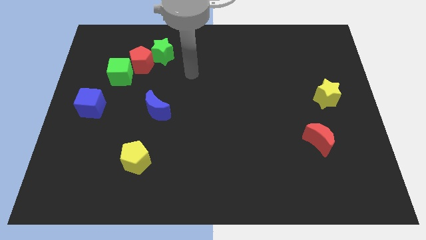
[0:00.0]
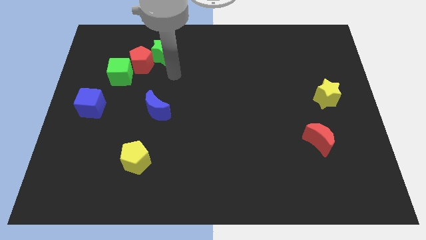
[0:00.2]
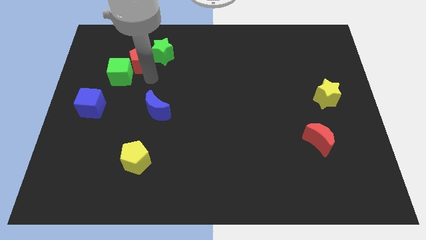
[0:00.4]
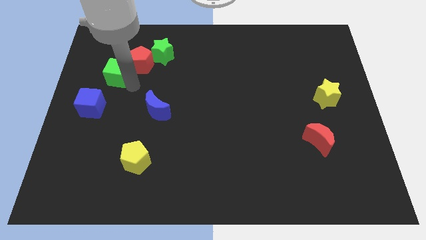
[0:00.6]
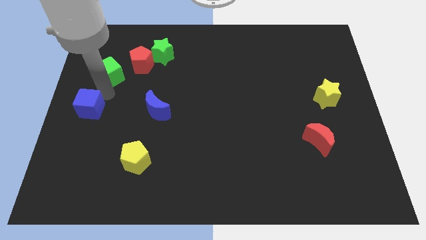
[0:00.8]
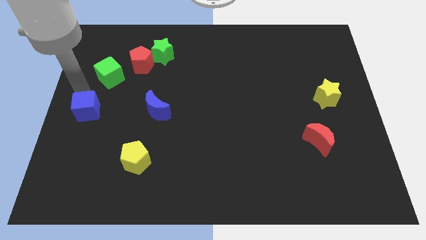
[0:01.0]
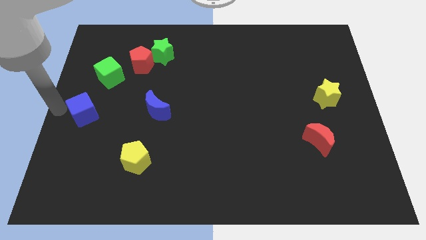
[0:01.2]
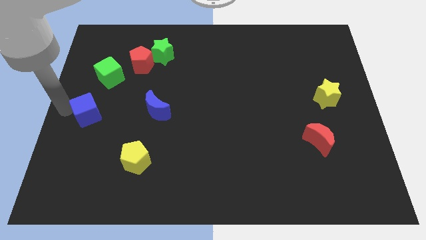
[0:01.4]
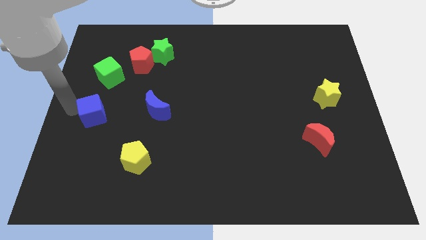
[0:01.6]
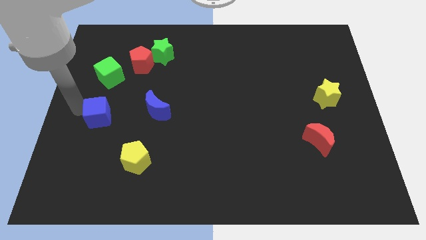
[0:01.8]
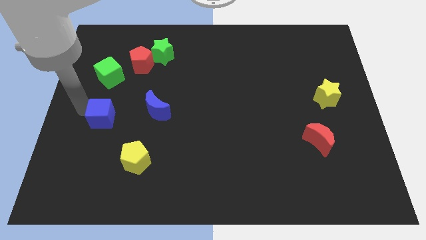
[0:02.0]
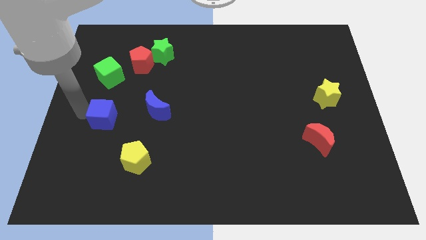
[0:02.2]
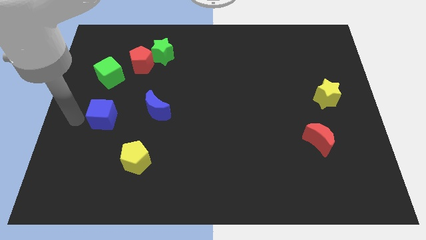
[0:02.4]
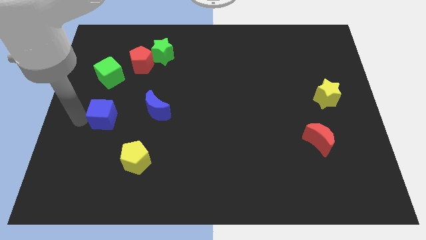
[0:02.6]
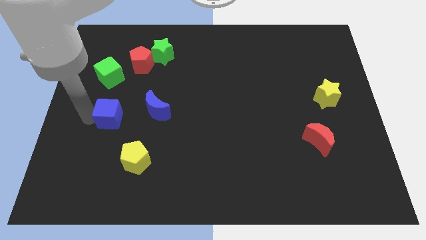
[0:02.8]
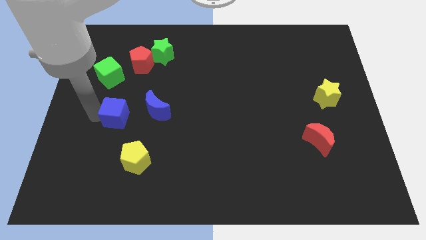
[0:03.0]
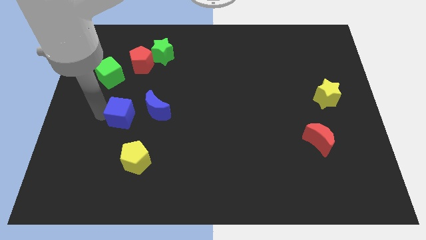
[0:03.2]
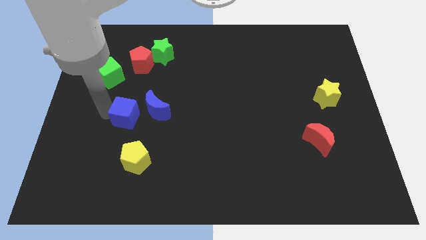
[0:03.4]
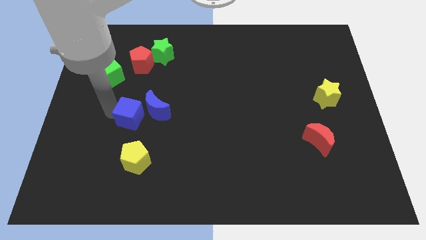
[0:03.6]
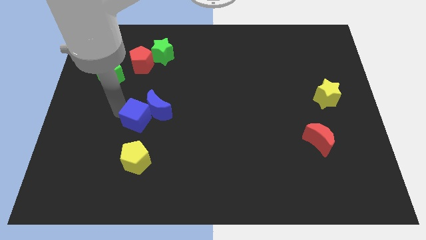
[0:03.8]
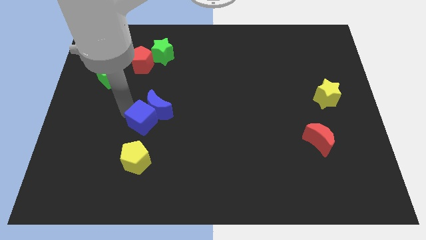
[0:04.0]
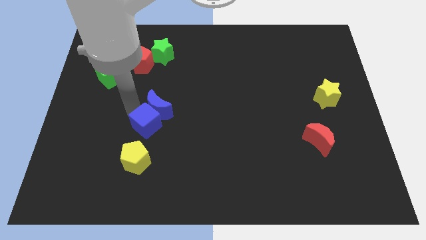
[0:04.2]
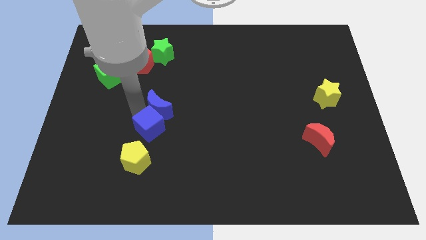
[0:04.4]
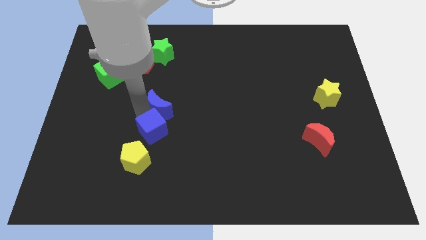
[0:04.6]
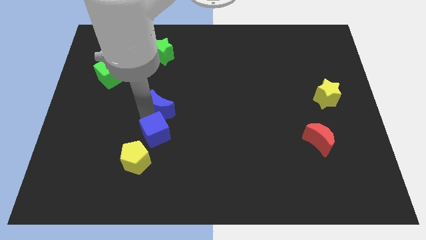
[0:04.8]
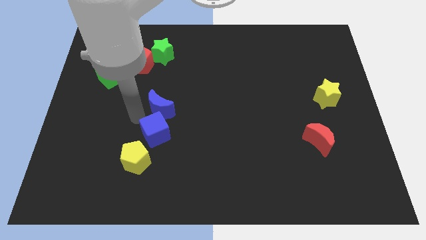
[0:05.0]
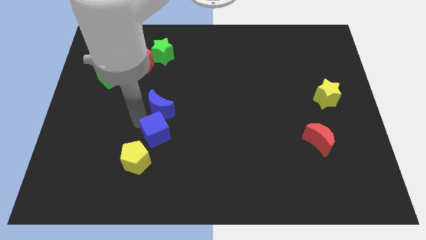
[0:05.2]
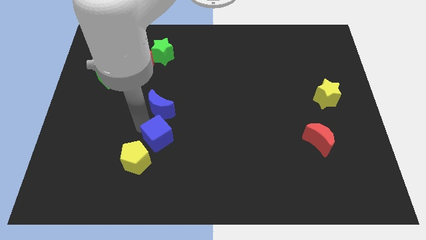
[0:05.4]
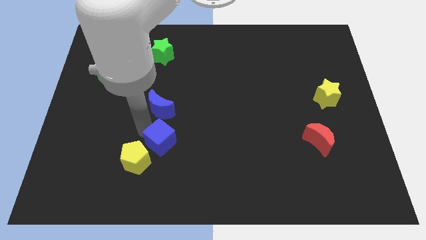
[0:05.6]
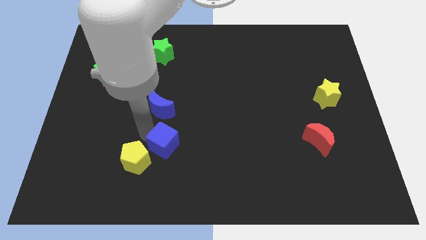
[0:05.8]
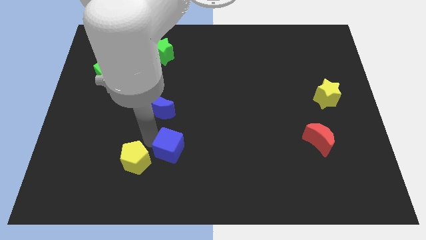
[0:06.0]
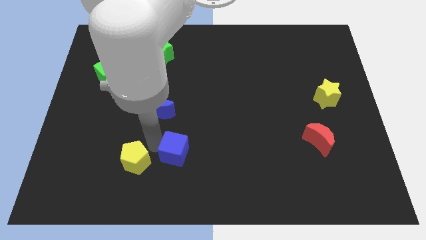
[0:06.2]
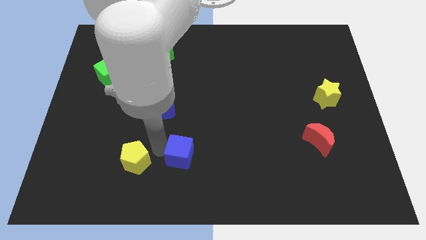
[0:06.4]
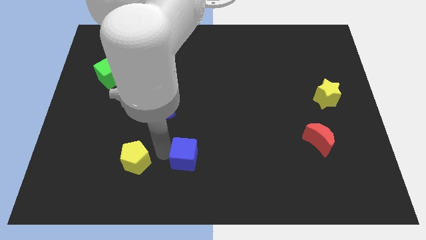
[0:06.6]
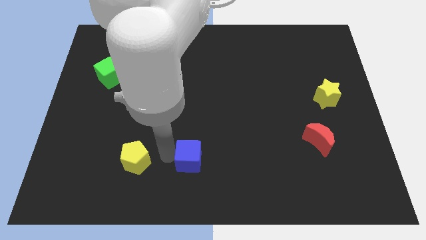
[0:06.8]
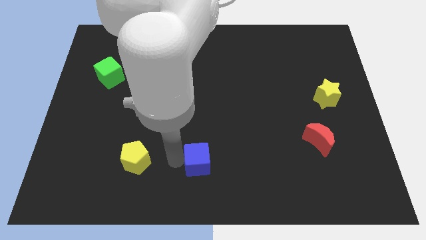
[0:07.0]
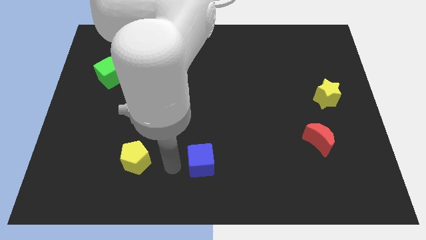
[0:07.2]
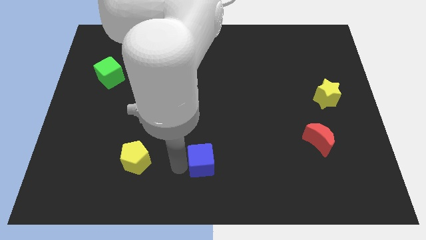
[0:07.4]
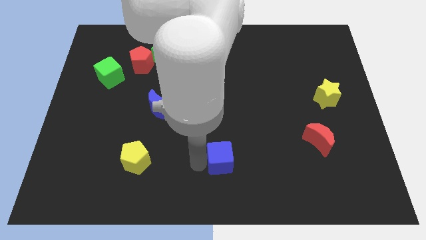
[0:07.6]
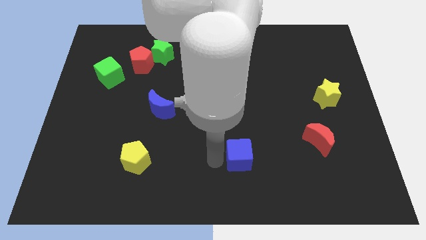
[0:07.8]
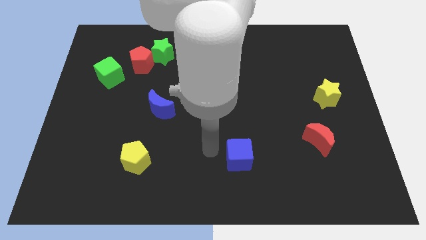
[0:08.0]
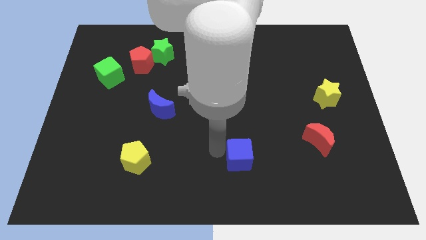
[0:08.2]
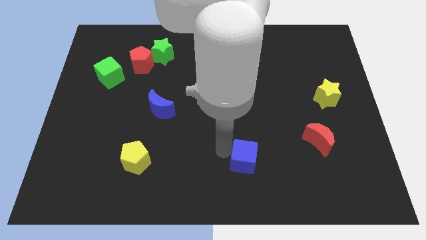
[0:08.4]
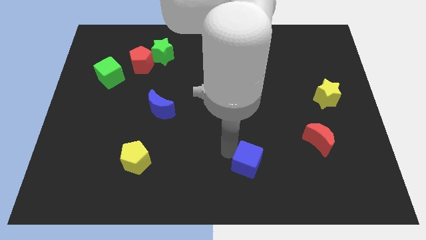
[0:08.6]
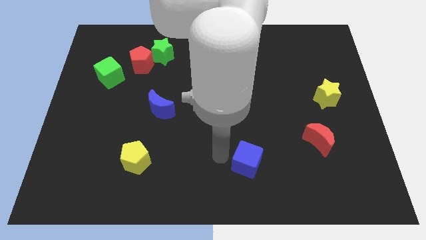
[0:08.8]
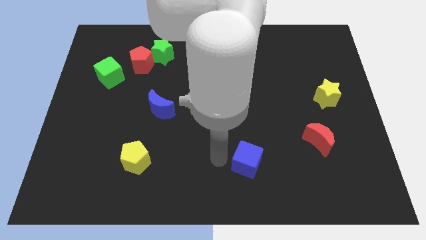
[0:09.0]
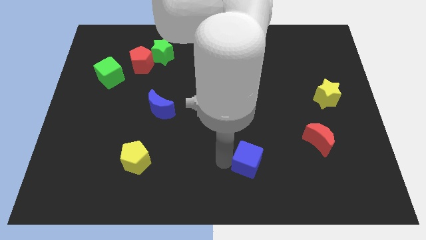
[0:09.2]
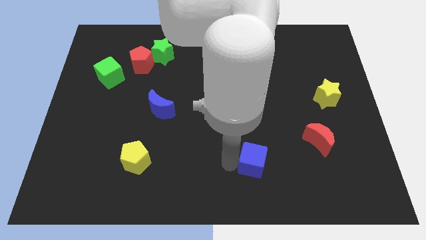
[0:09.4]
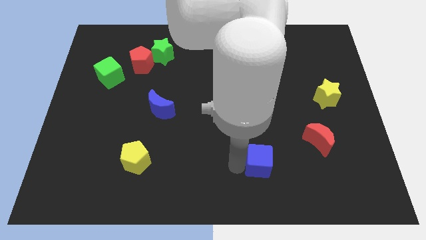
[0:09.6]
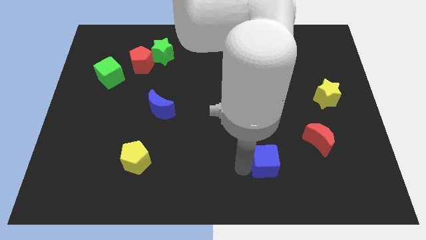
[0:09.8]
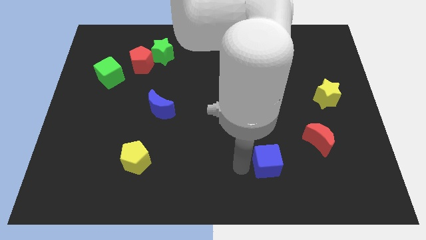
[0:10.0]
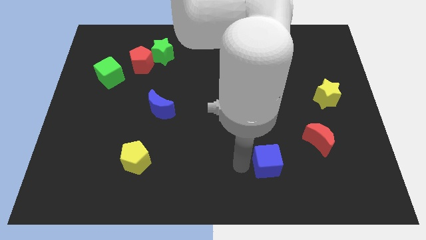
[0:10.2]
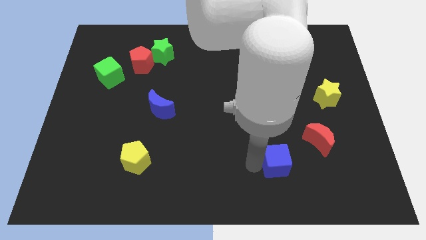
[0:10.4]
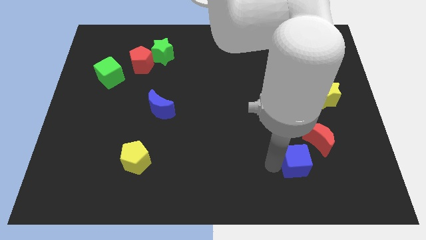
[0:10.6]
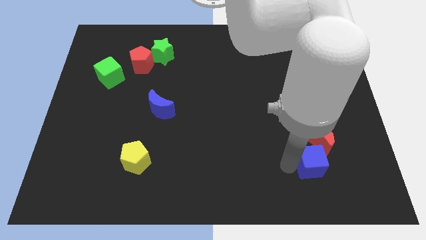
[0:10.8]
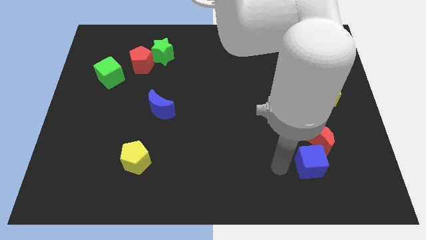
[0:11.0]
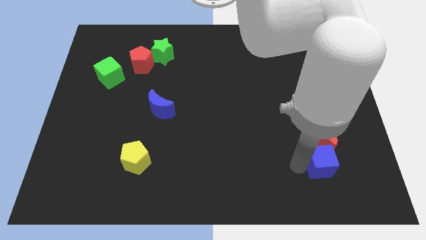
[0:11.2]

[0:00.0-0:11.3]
push the blue cube diagonally down and to the right of the red moon

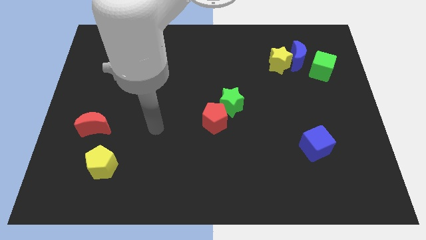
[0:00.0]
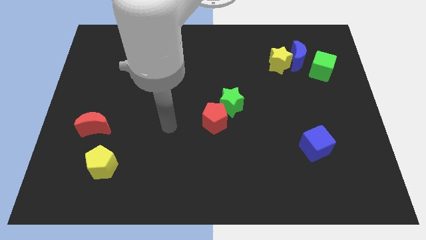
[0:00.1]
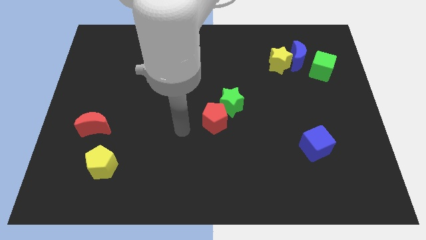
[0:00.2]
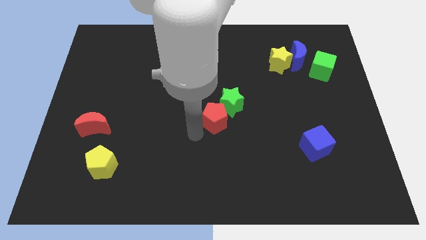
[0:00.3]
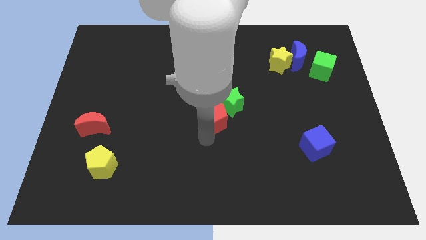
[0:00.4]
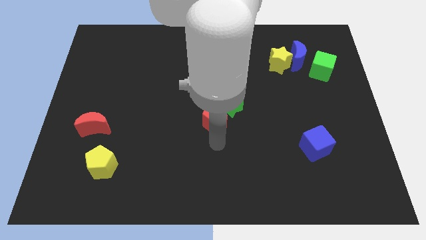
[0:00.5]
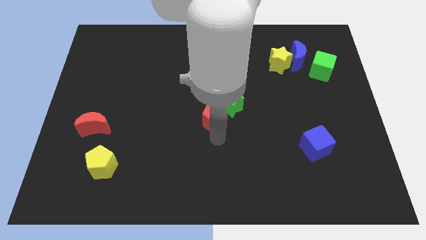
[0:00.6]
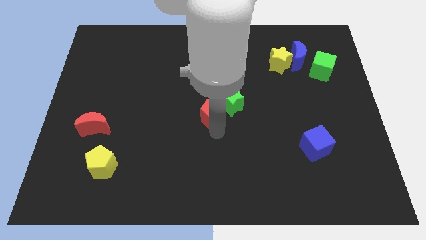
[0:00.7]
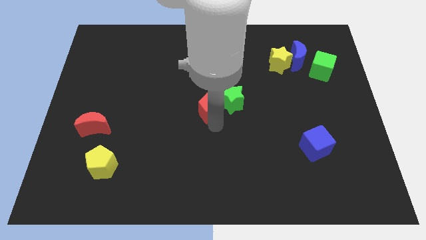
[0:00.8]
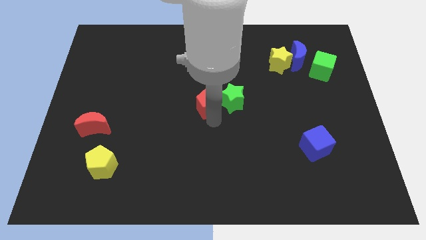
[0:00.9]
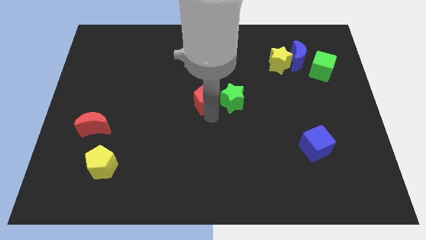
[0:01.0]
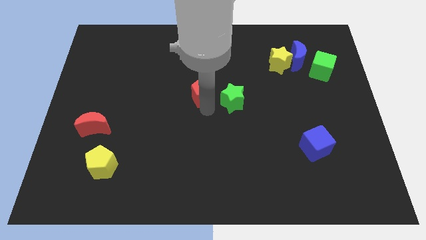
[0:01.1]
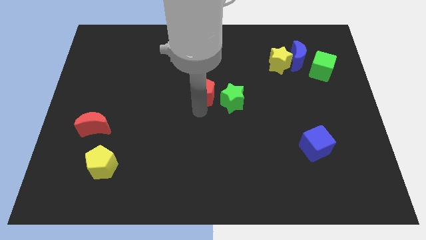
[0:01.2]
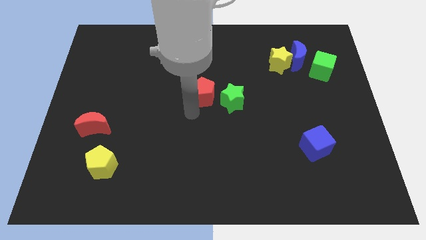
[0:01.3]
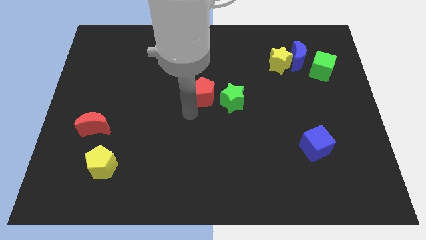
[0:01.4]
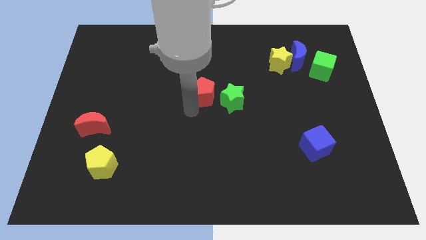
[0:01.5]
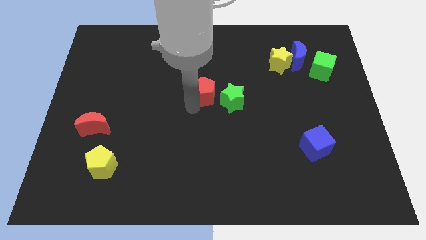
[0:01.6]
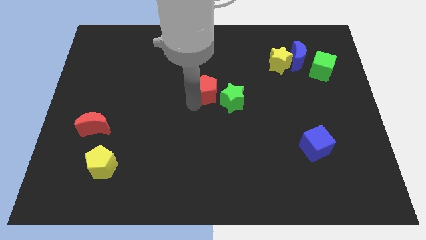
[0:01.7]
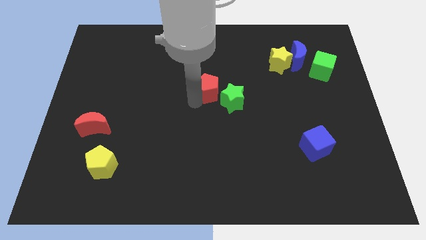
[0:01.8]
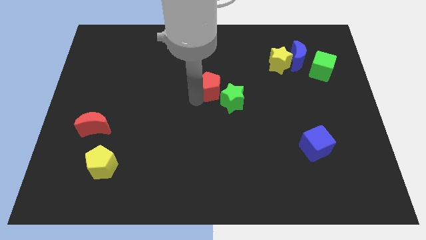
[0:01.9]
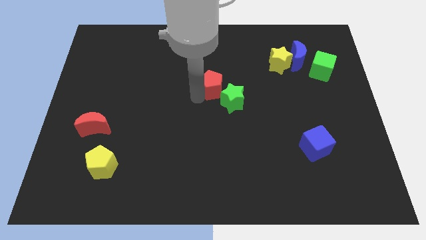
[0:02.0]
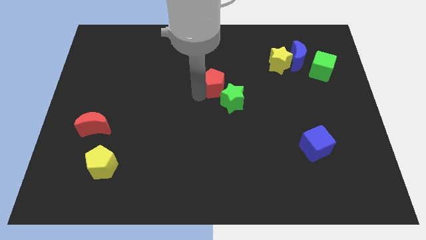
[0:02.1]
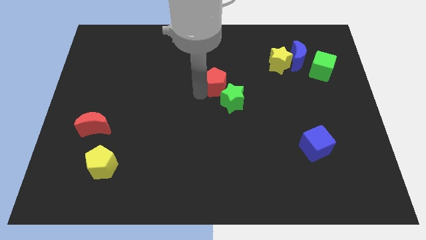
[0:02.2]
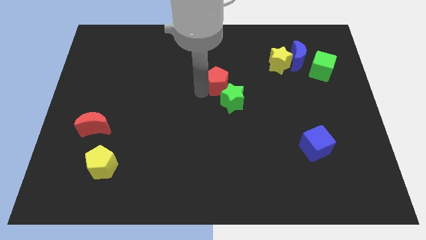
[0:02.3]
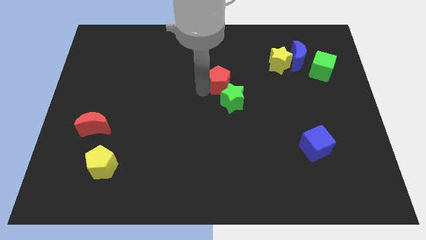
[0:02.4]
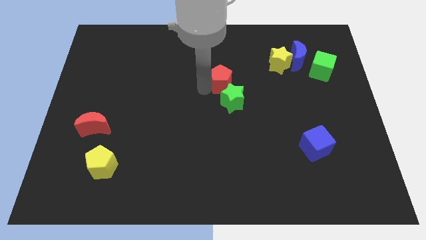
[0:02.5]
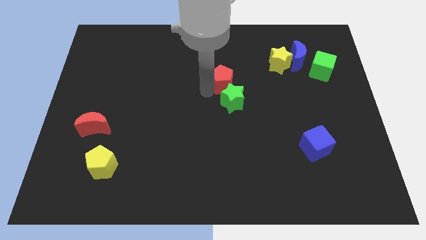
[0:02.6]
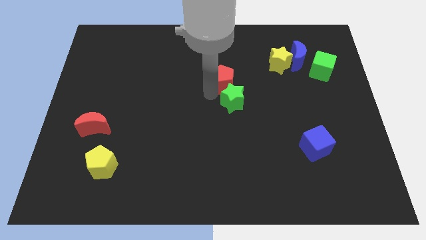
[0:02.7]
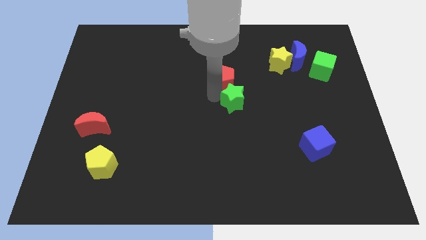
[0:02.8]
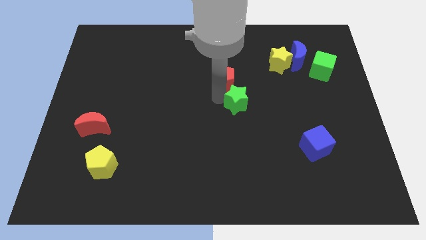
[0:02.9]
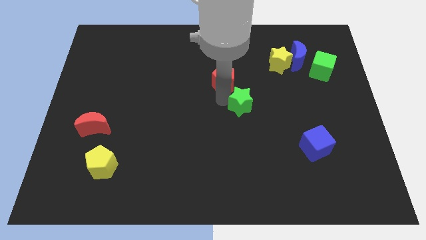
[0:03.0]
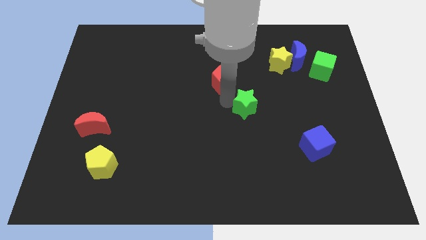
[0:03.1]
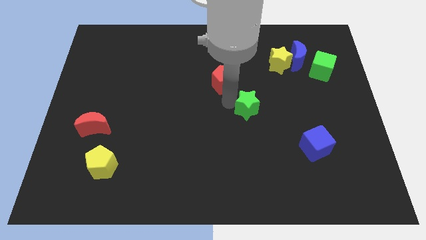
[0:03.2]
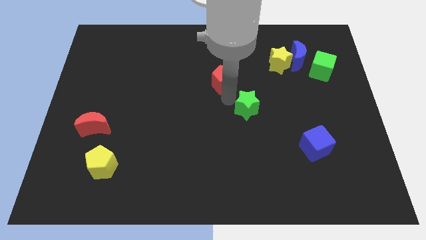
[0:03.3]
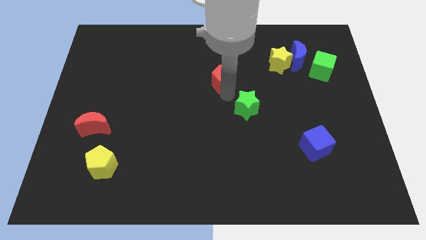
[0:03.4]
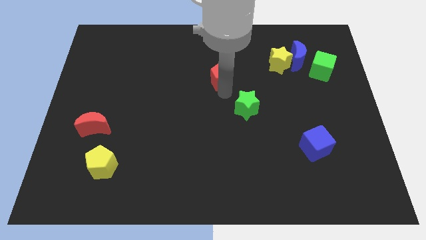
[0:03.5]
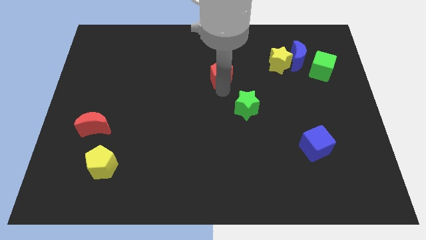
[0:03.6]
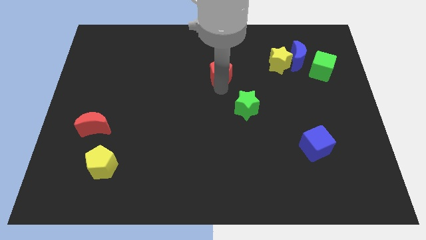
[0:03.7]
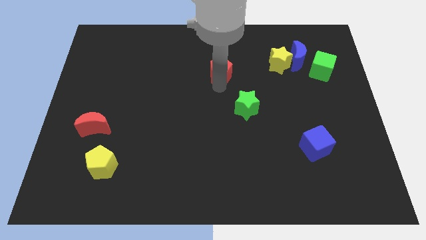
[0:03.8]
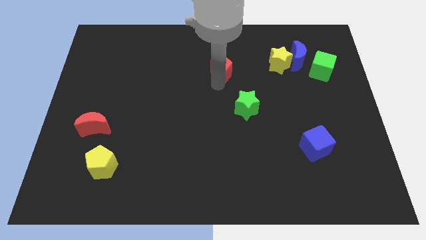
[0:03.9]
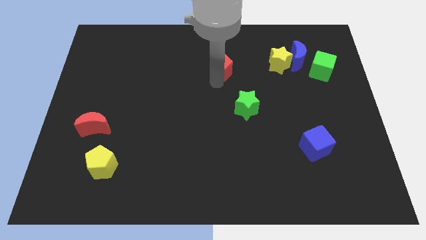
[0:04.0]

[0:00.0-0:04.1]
move the red pentagon left of the yellow star
